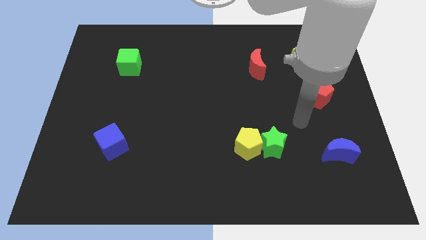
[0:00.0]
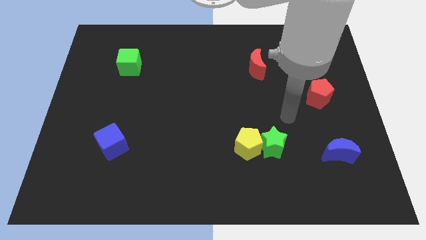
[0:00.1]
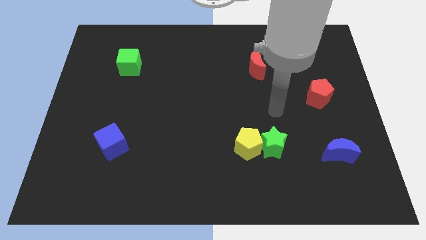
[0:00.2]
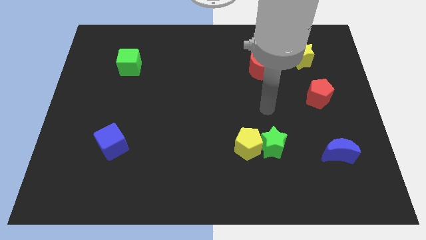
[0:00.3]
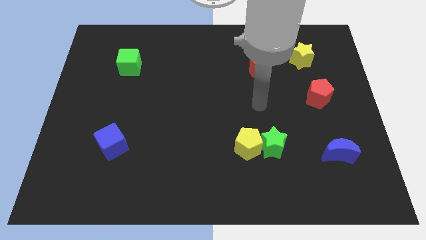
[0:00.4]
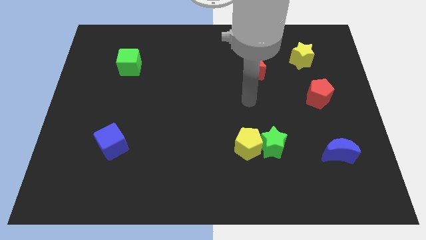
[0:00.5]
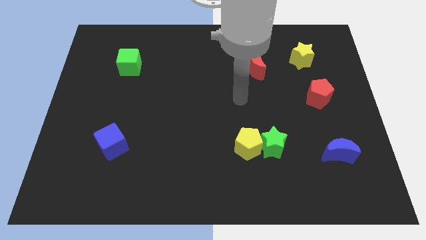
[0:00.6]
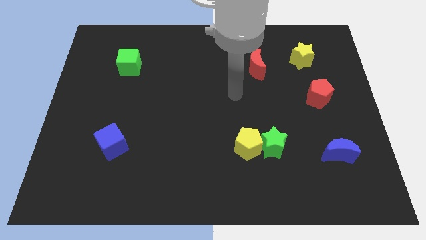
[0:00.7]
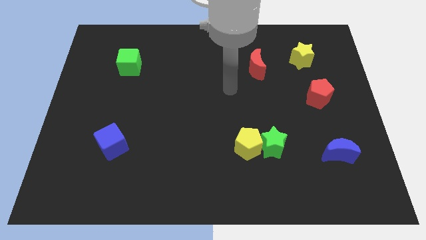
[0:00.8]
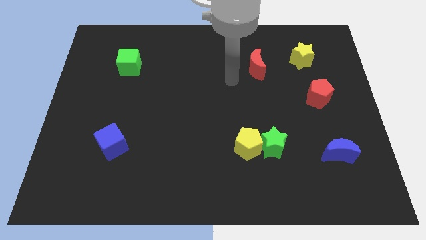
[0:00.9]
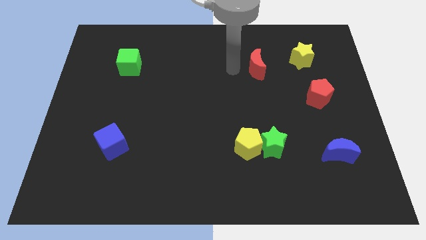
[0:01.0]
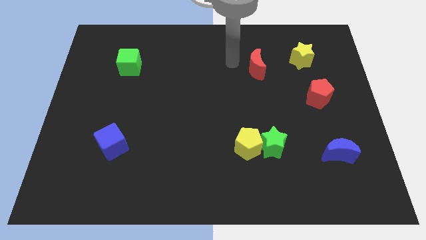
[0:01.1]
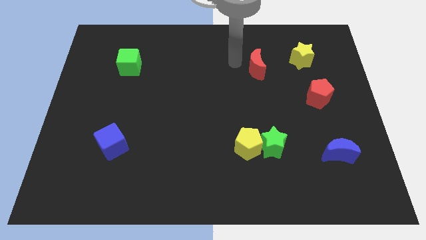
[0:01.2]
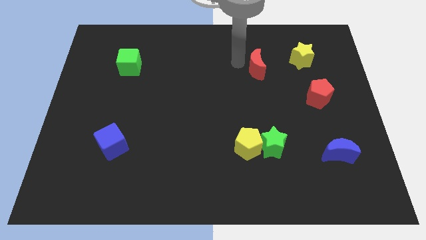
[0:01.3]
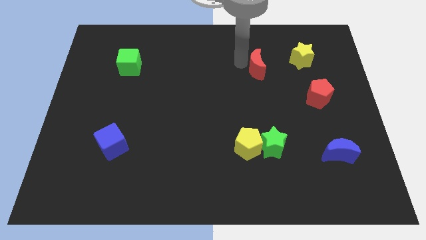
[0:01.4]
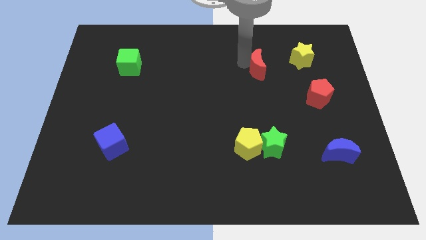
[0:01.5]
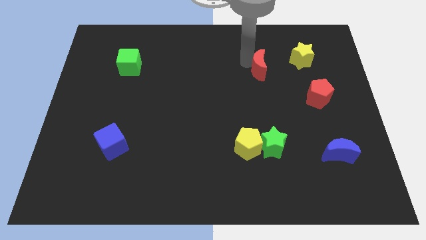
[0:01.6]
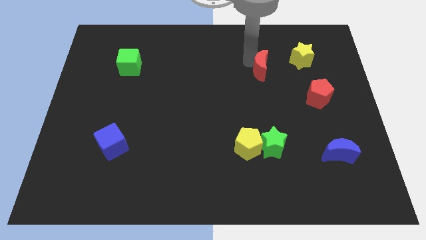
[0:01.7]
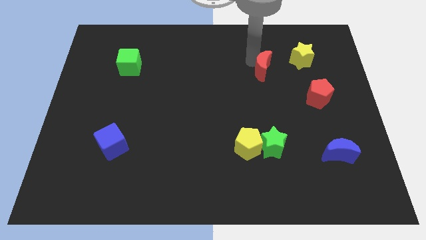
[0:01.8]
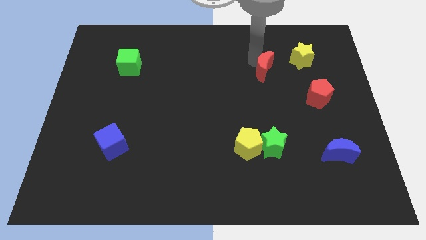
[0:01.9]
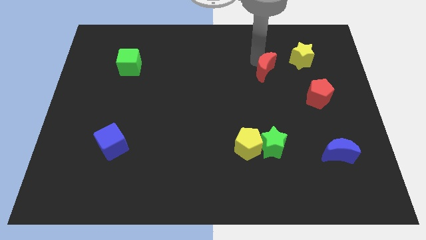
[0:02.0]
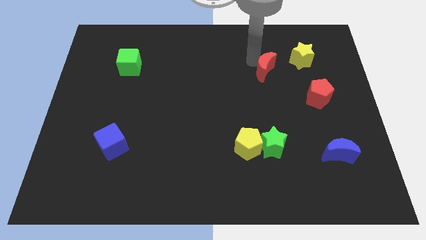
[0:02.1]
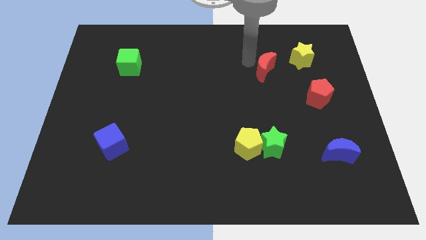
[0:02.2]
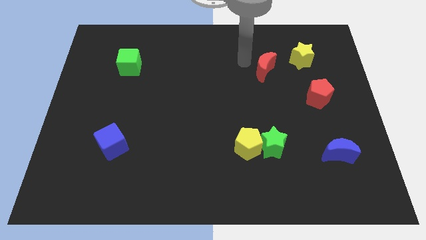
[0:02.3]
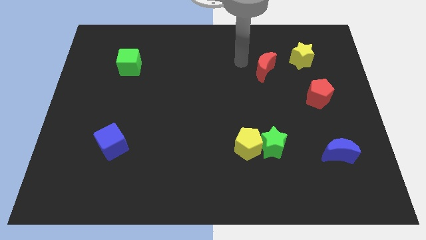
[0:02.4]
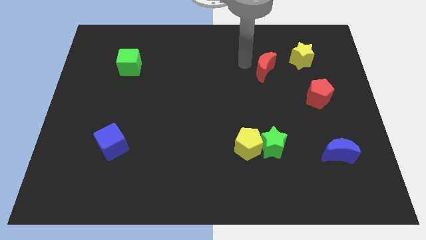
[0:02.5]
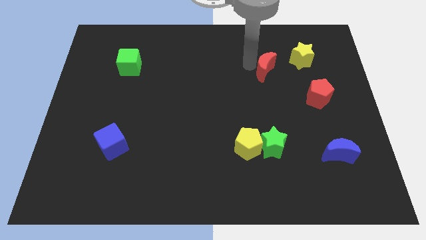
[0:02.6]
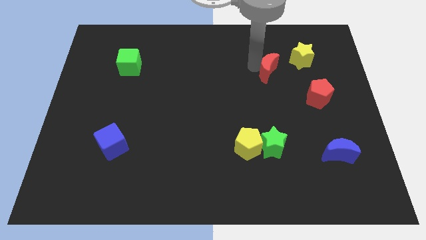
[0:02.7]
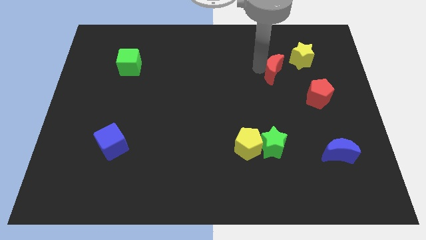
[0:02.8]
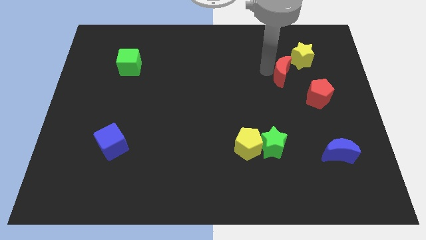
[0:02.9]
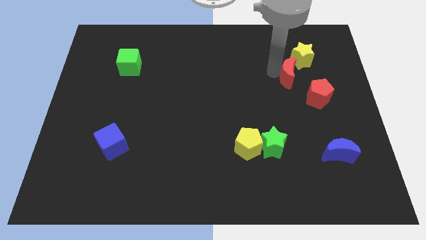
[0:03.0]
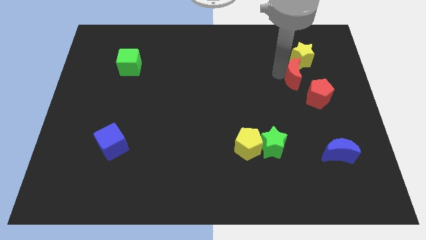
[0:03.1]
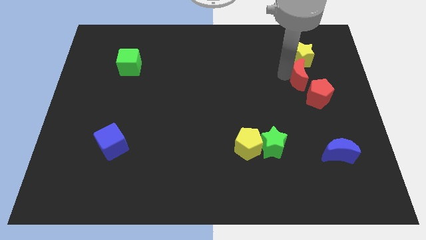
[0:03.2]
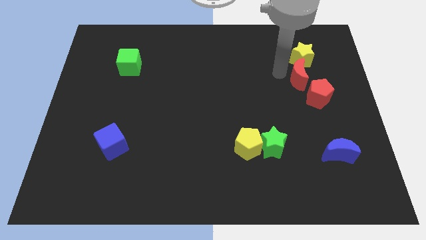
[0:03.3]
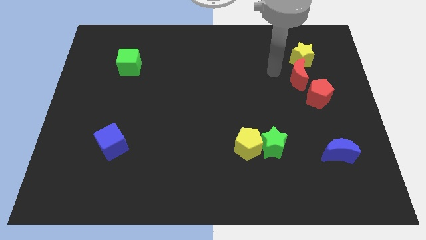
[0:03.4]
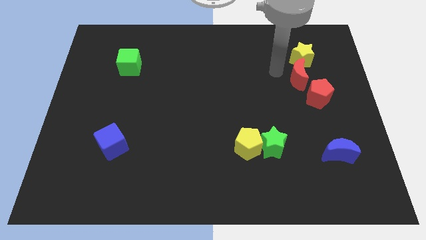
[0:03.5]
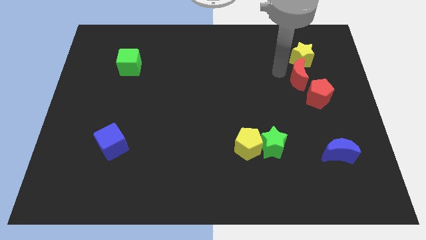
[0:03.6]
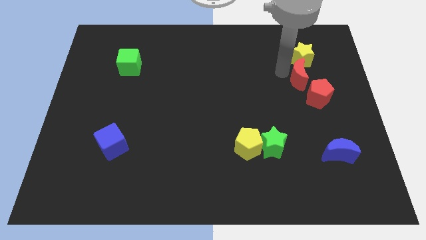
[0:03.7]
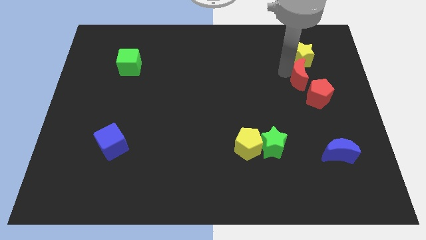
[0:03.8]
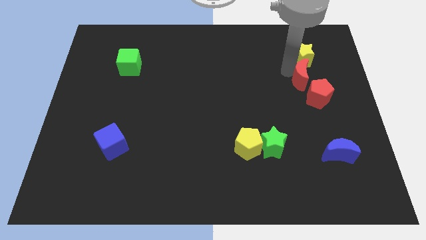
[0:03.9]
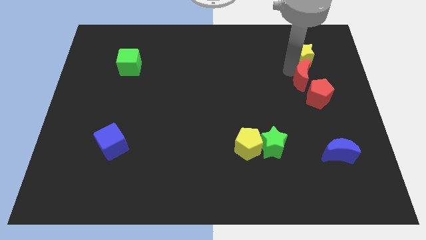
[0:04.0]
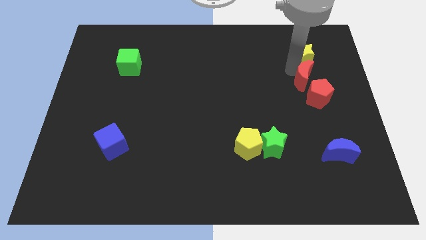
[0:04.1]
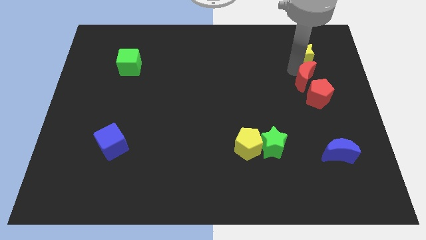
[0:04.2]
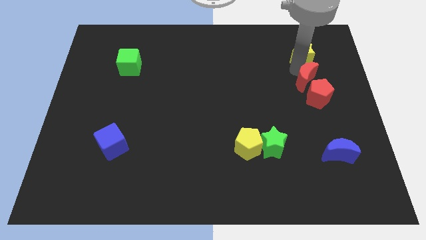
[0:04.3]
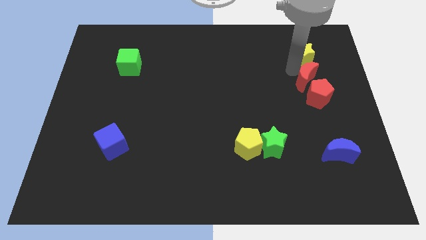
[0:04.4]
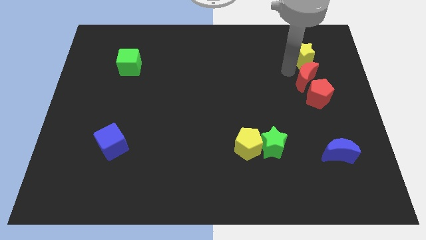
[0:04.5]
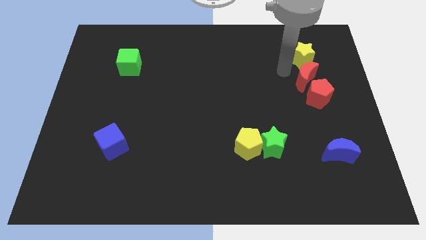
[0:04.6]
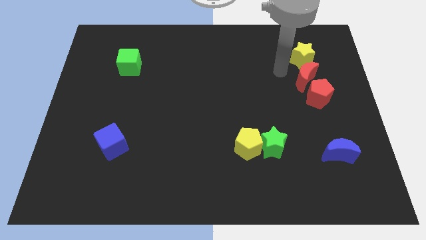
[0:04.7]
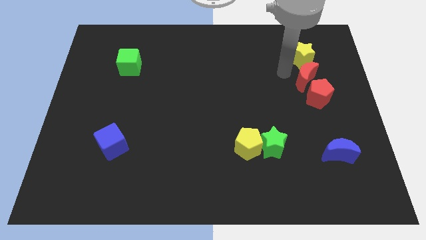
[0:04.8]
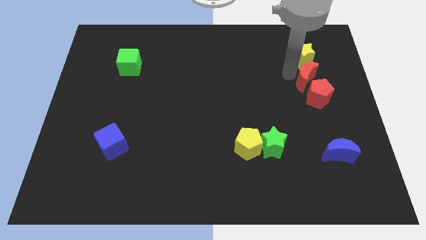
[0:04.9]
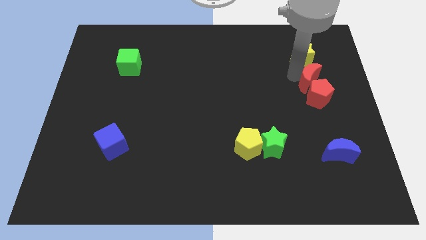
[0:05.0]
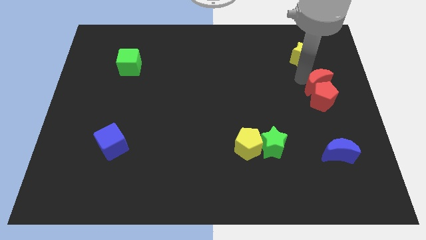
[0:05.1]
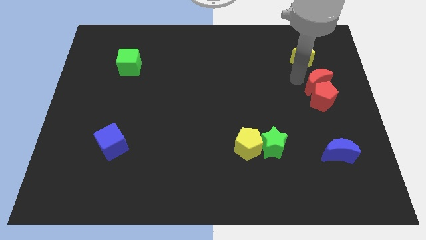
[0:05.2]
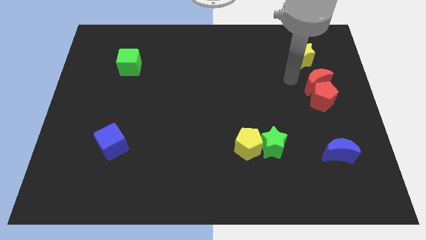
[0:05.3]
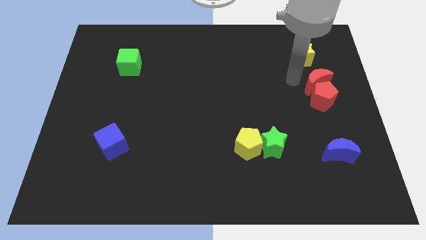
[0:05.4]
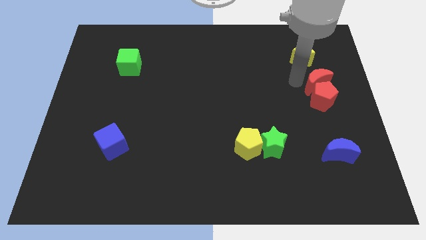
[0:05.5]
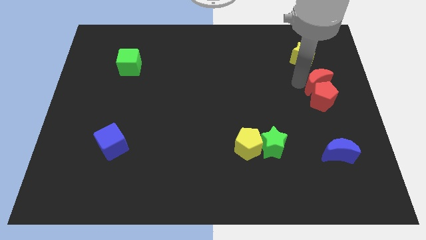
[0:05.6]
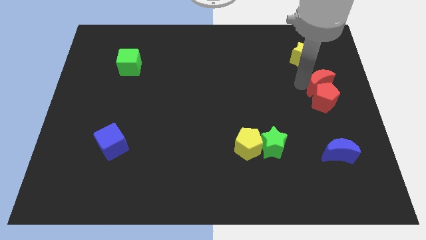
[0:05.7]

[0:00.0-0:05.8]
slide the red moon to the right side
